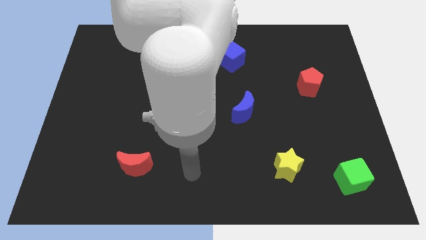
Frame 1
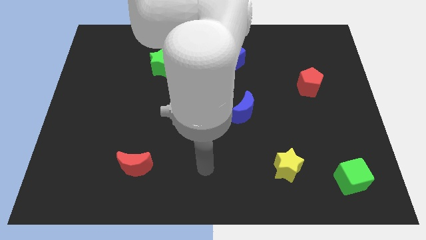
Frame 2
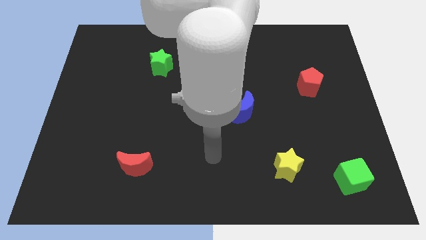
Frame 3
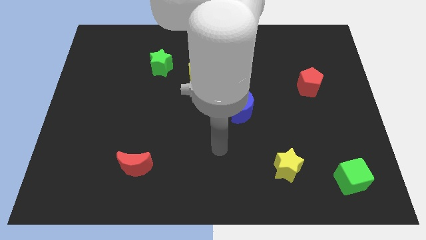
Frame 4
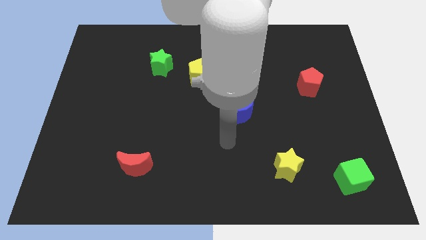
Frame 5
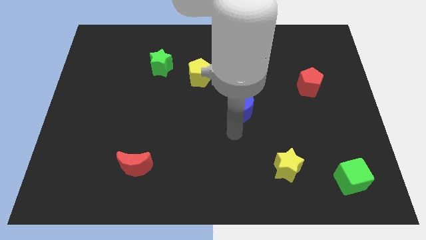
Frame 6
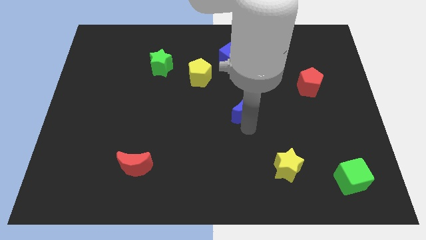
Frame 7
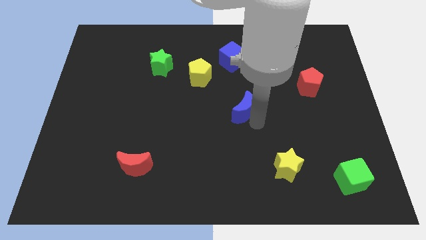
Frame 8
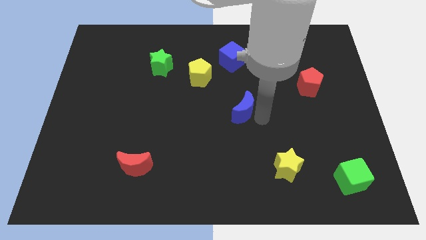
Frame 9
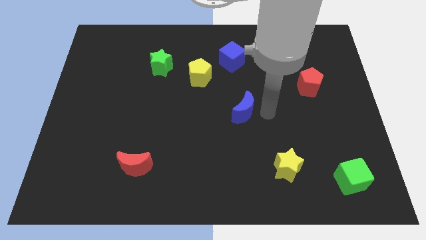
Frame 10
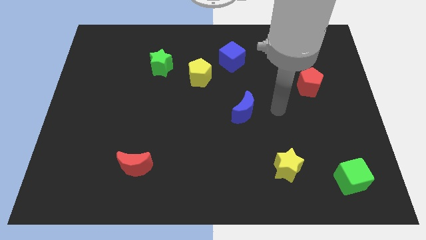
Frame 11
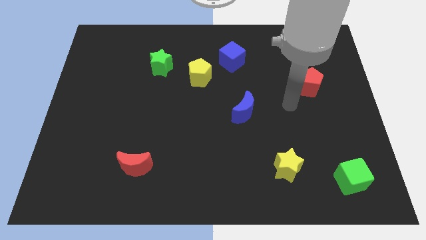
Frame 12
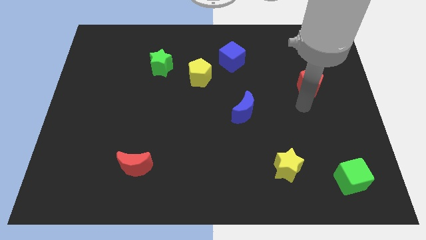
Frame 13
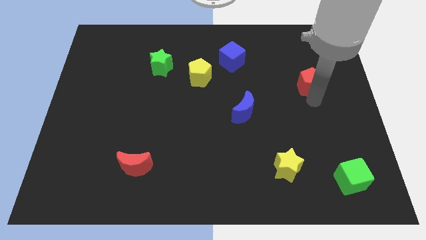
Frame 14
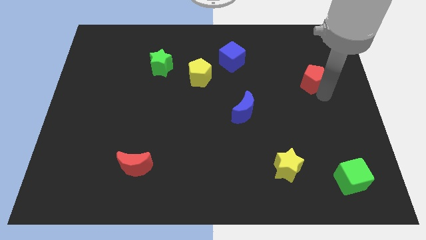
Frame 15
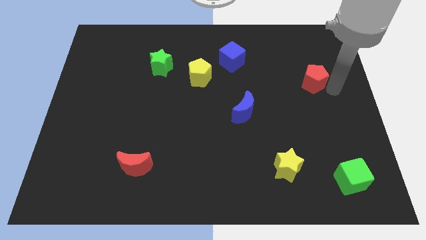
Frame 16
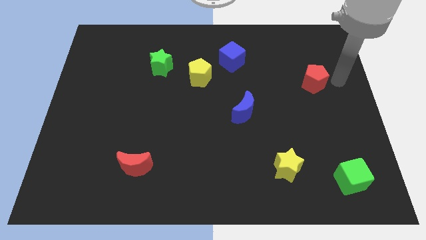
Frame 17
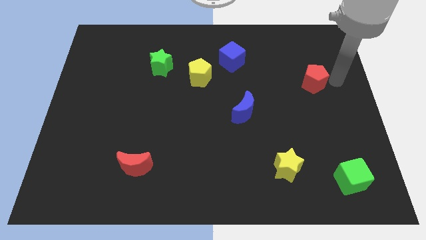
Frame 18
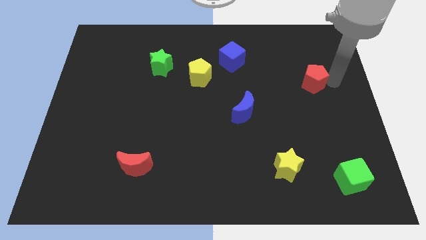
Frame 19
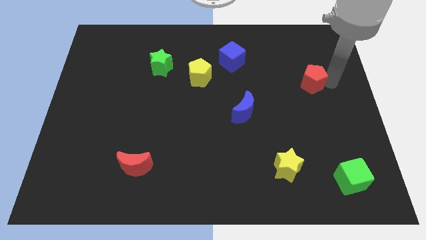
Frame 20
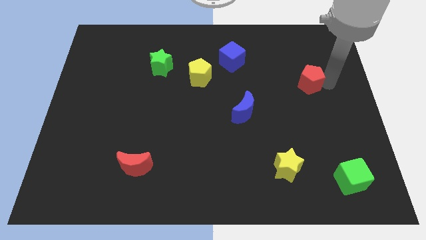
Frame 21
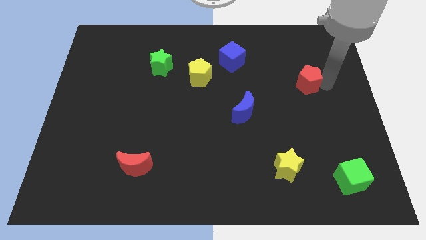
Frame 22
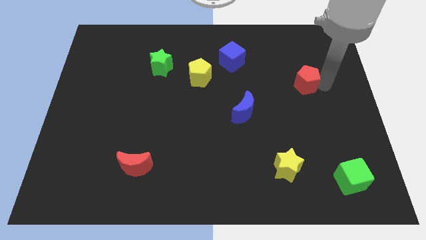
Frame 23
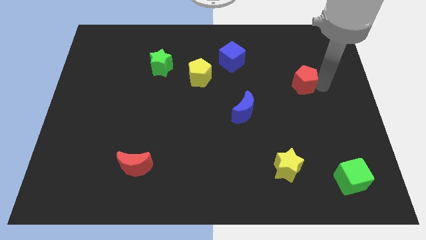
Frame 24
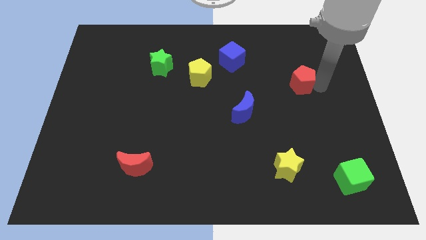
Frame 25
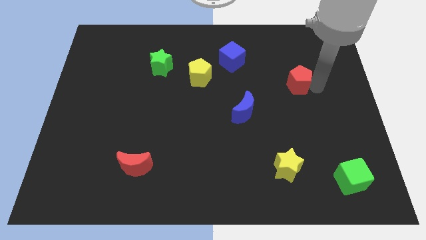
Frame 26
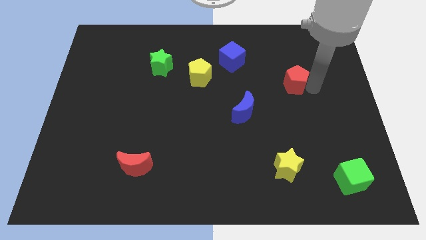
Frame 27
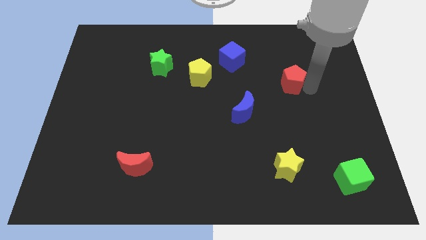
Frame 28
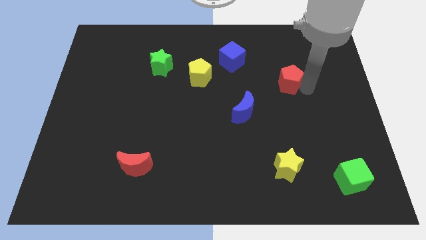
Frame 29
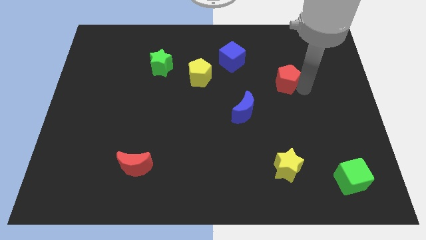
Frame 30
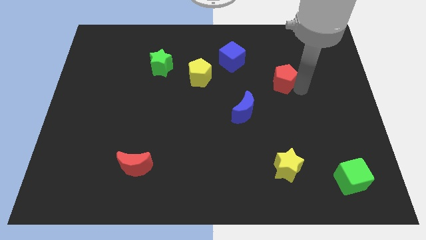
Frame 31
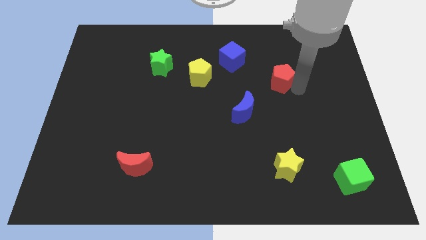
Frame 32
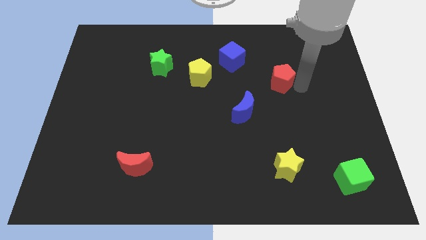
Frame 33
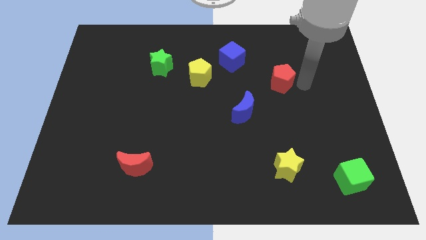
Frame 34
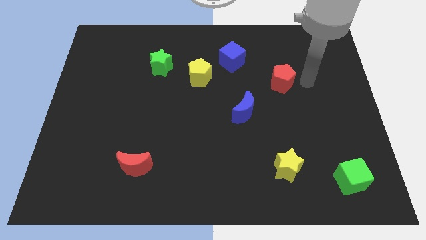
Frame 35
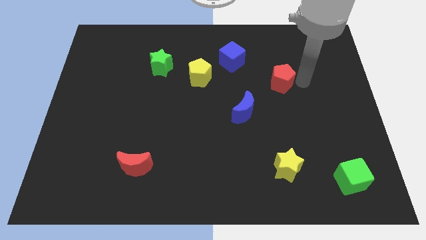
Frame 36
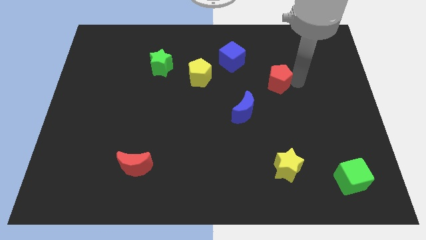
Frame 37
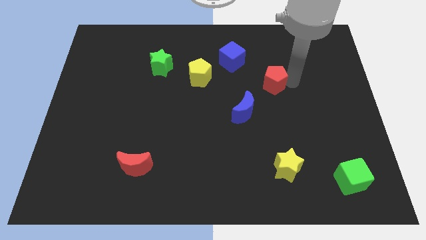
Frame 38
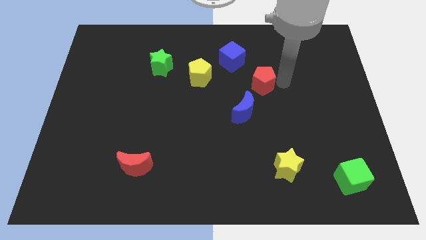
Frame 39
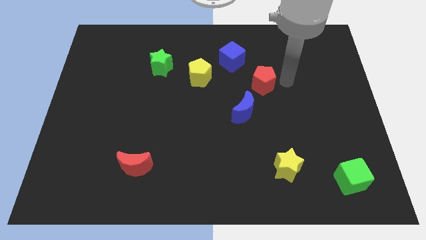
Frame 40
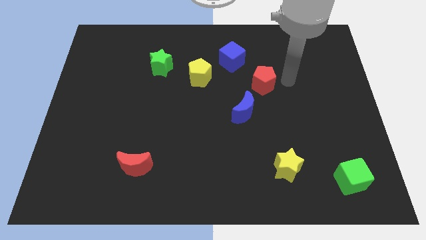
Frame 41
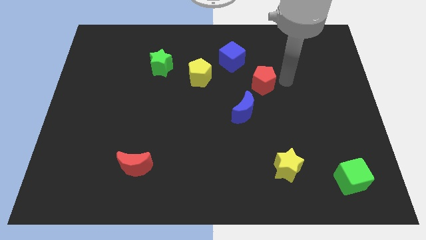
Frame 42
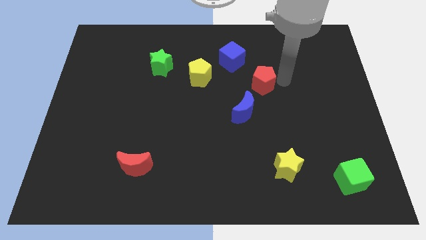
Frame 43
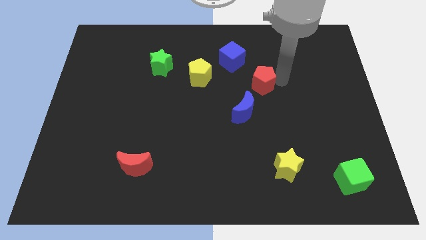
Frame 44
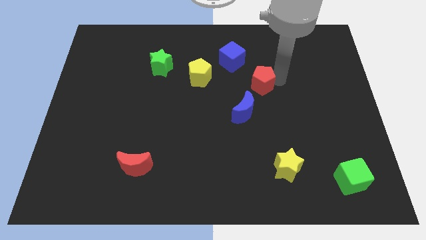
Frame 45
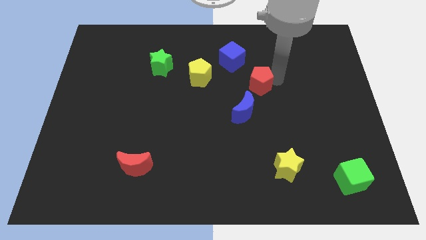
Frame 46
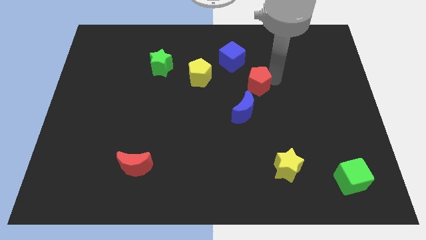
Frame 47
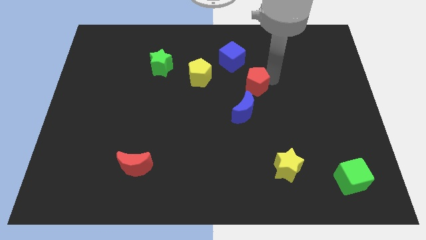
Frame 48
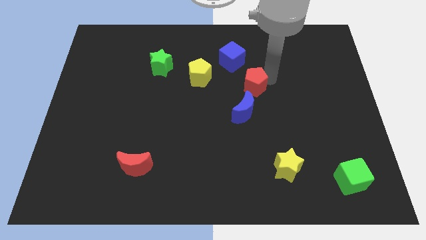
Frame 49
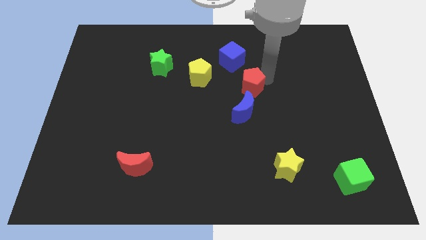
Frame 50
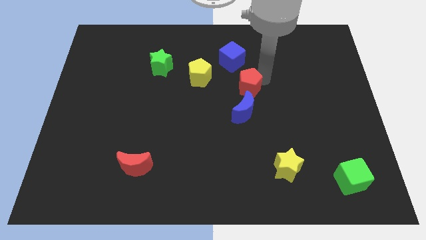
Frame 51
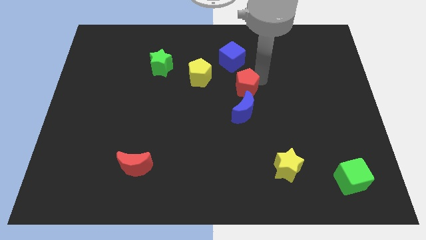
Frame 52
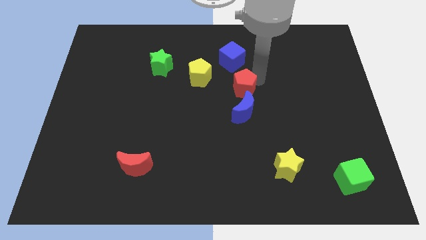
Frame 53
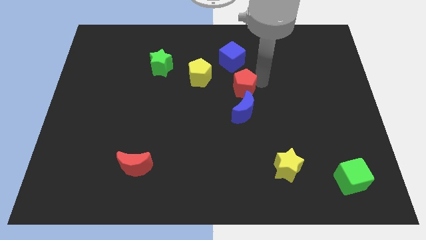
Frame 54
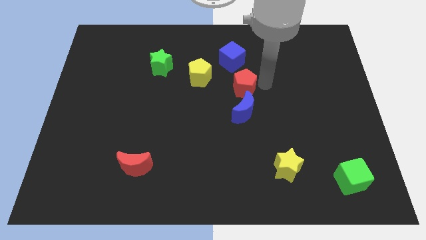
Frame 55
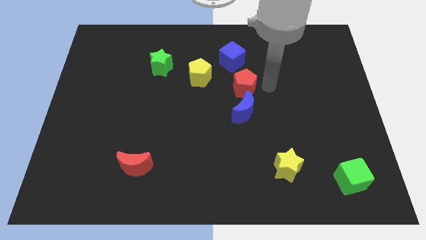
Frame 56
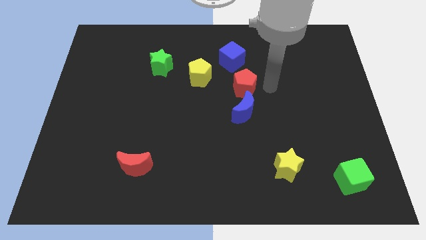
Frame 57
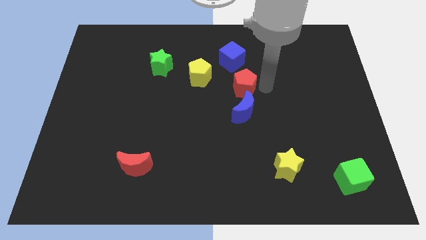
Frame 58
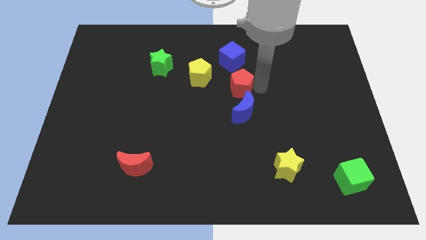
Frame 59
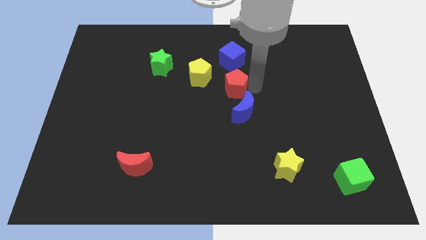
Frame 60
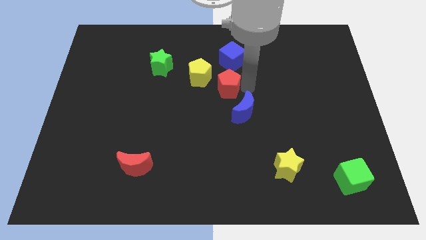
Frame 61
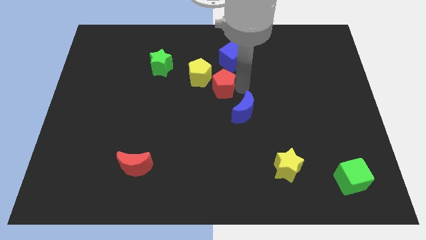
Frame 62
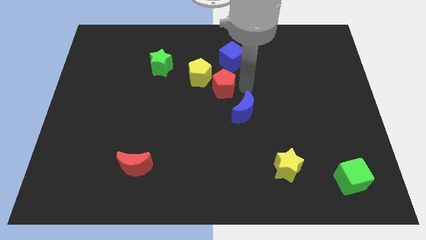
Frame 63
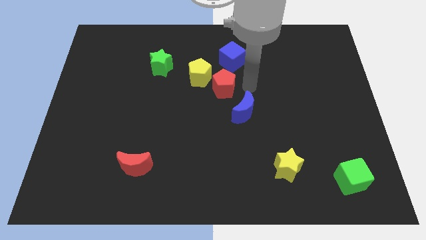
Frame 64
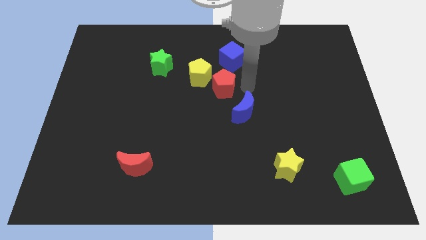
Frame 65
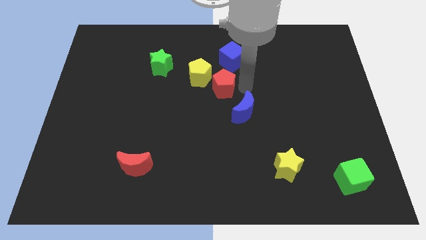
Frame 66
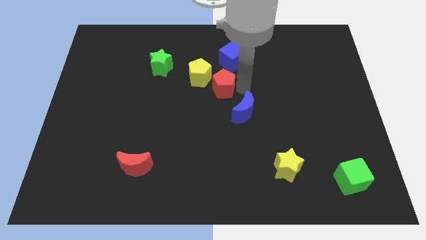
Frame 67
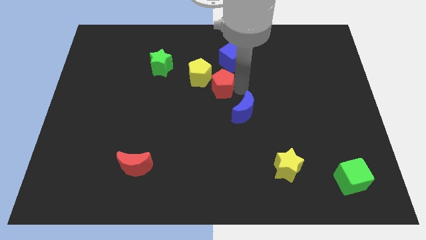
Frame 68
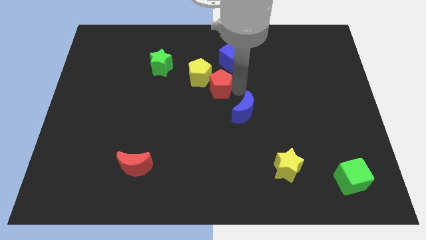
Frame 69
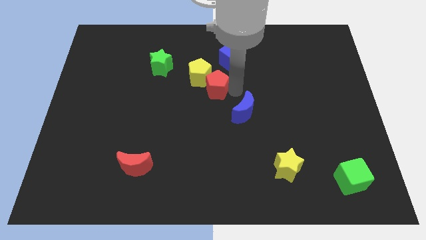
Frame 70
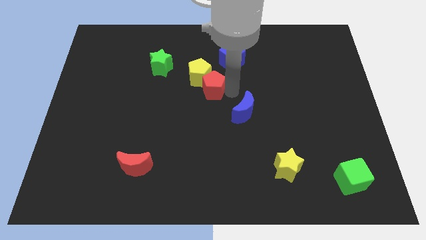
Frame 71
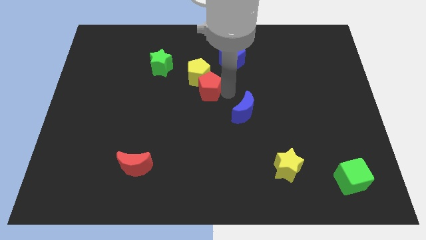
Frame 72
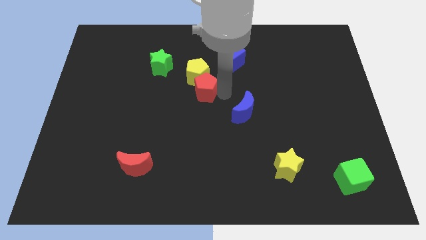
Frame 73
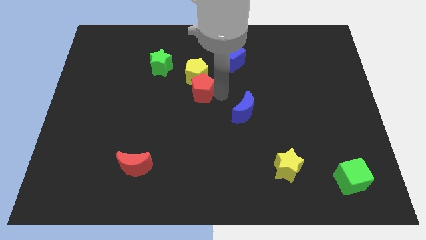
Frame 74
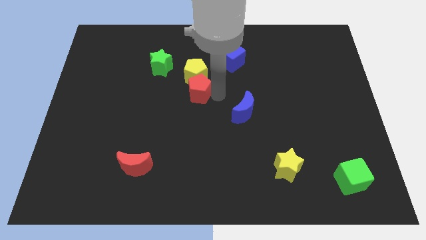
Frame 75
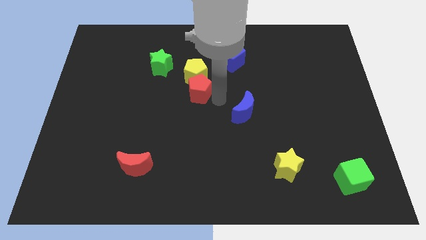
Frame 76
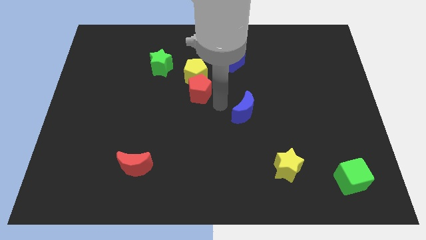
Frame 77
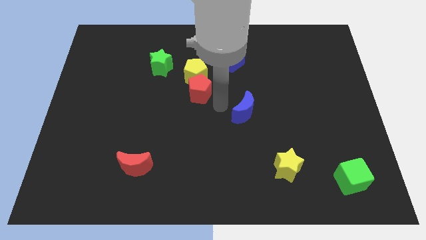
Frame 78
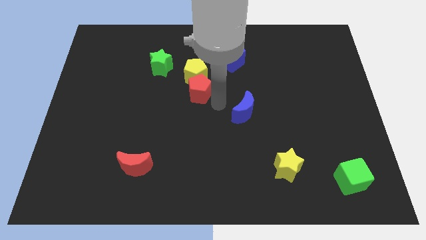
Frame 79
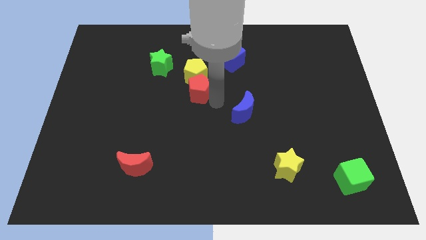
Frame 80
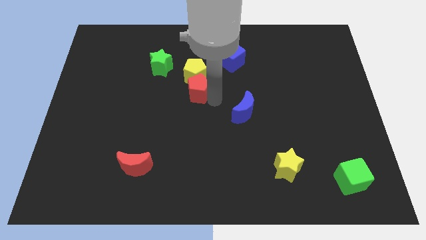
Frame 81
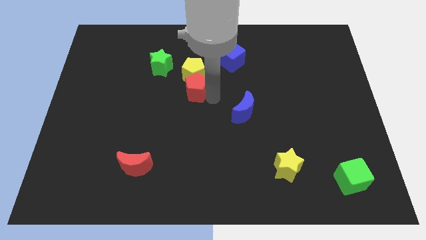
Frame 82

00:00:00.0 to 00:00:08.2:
push the red pentagon diagonally down and to the right of the green star
